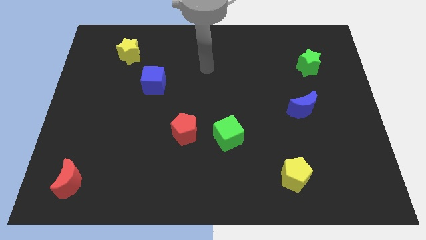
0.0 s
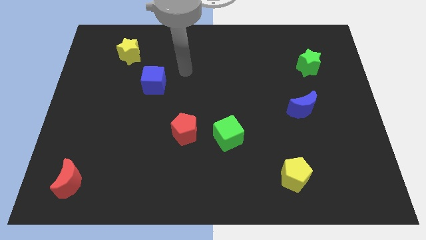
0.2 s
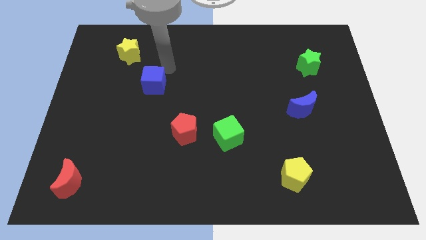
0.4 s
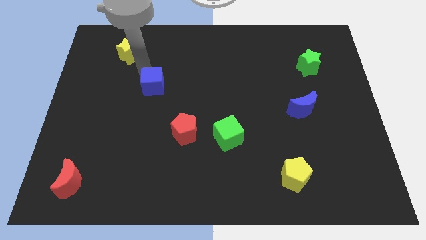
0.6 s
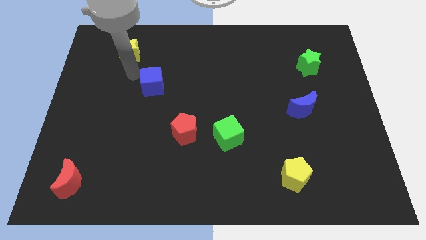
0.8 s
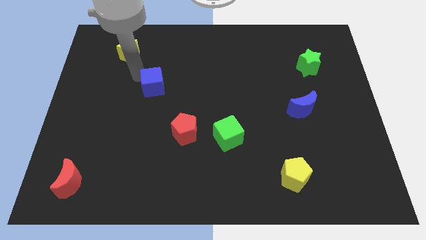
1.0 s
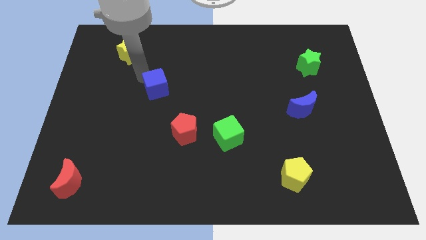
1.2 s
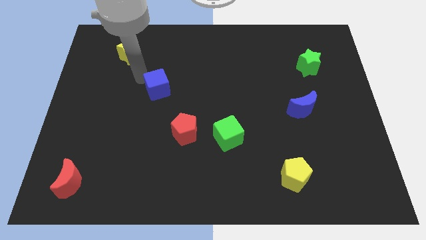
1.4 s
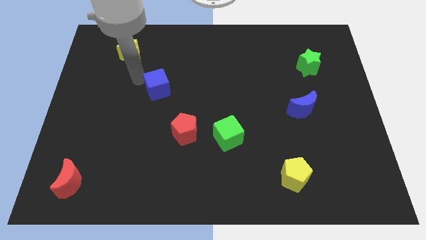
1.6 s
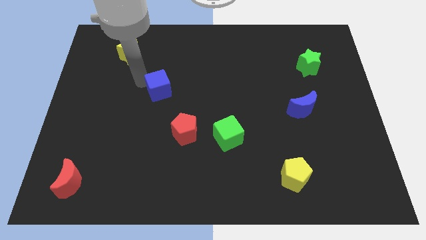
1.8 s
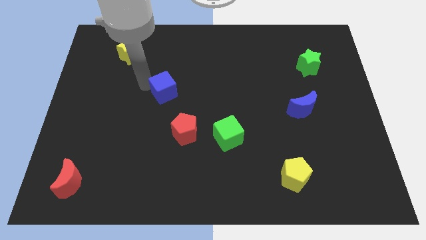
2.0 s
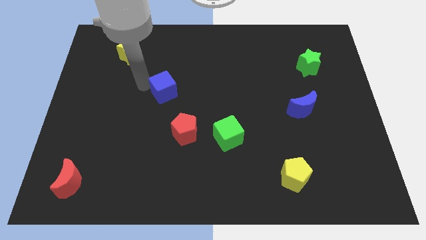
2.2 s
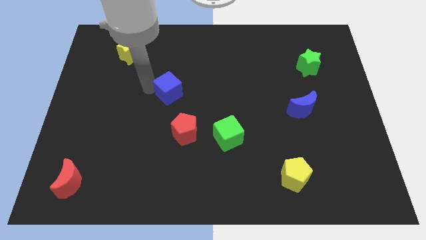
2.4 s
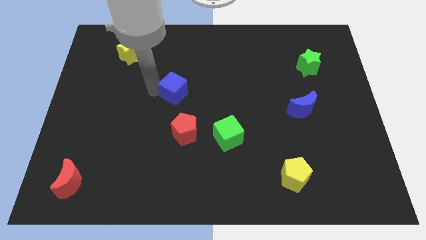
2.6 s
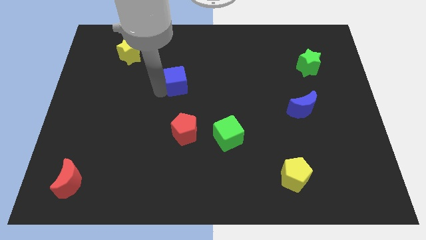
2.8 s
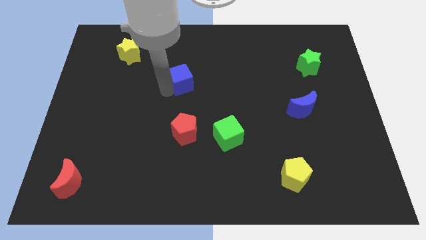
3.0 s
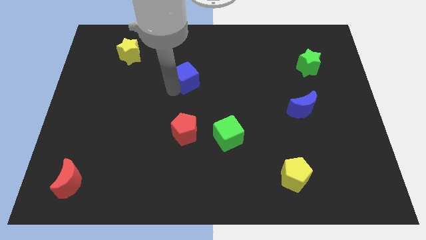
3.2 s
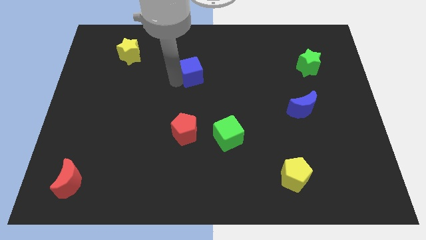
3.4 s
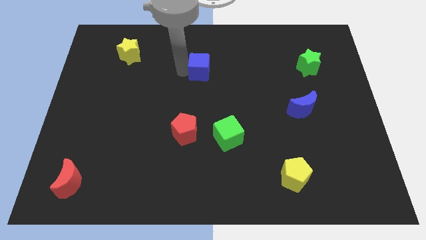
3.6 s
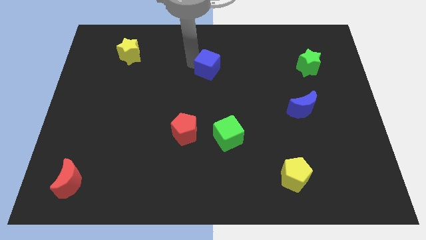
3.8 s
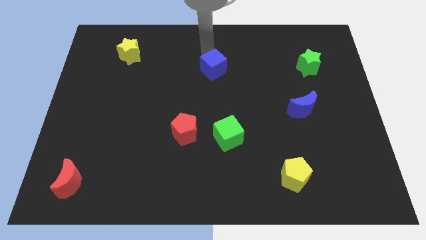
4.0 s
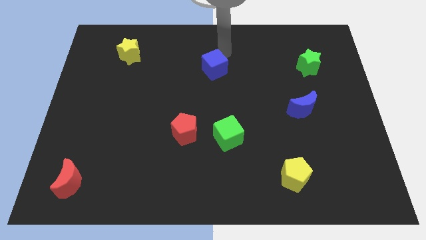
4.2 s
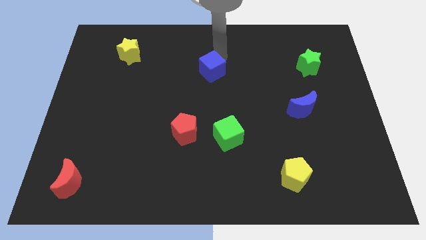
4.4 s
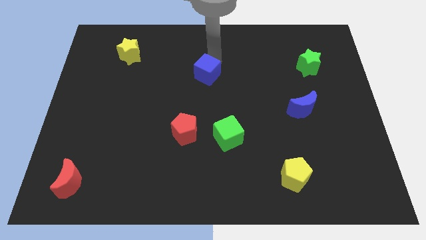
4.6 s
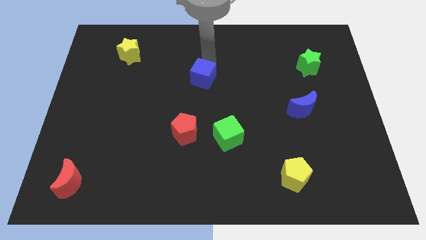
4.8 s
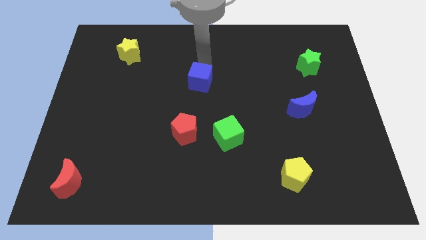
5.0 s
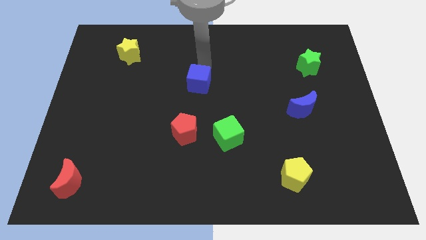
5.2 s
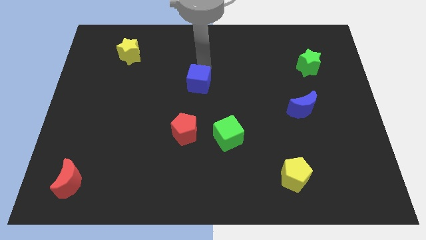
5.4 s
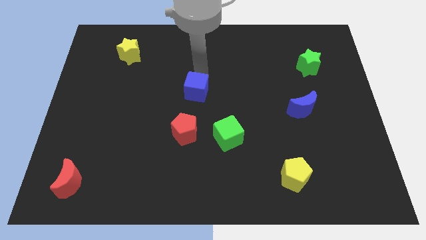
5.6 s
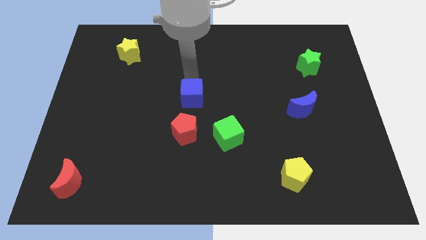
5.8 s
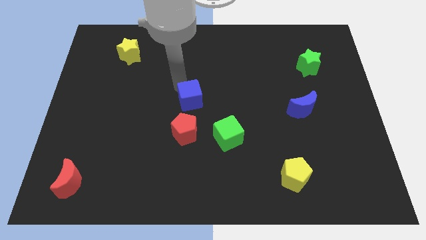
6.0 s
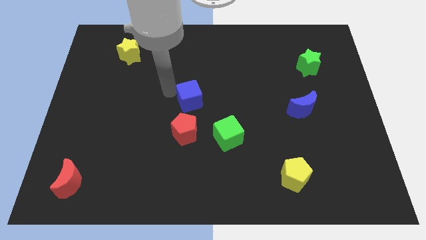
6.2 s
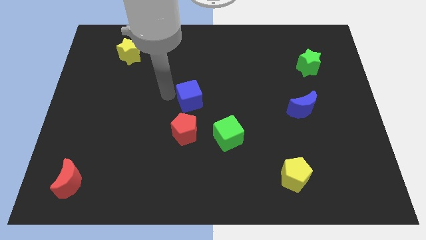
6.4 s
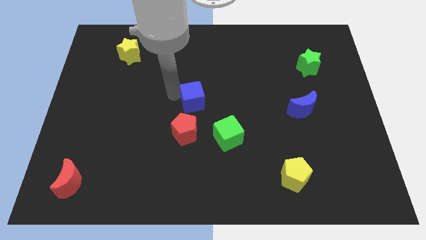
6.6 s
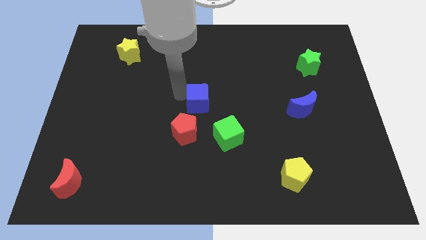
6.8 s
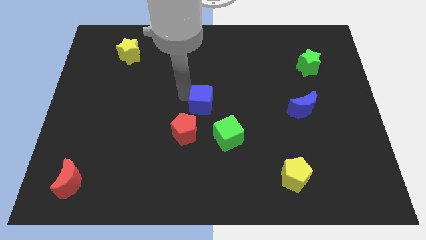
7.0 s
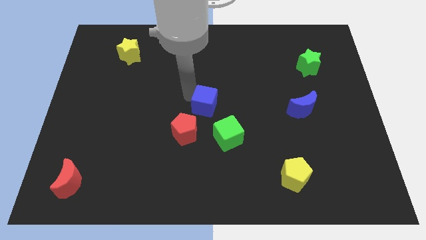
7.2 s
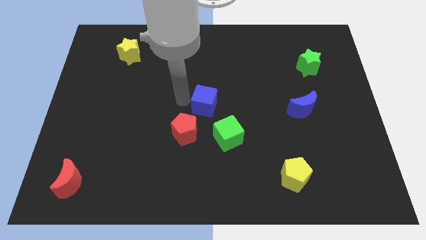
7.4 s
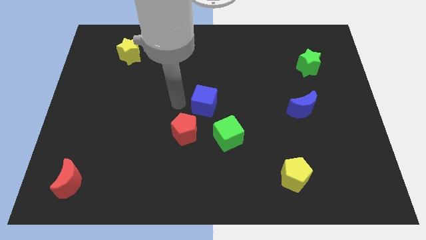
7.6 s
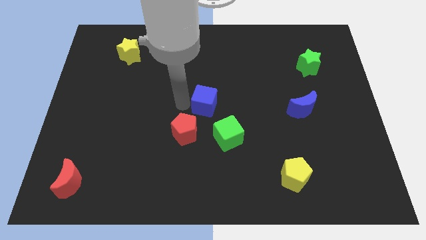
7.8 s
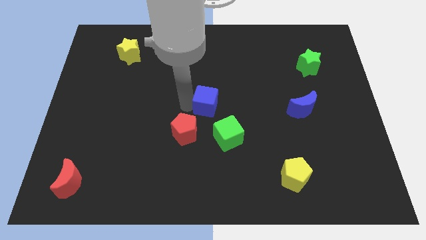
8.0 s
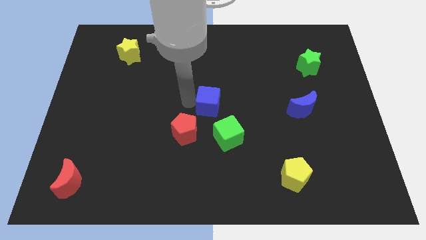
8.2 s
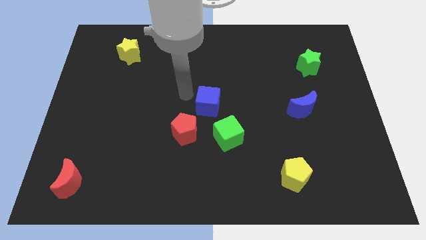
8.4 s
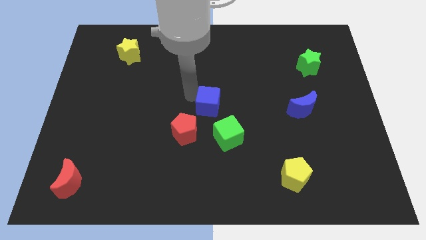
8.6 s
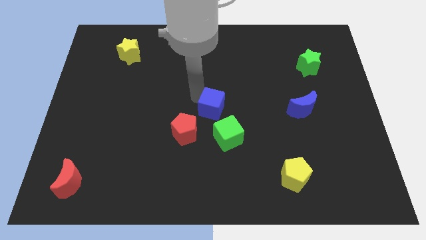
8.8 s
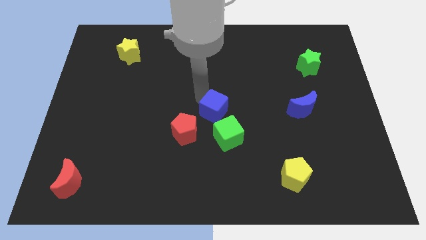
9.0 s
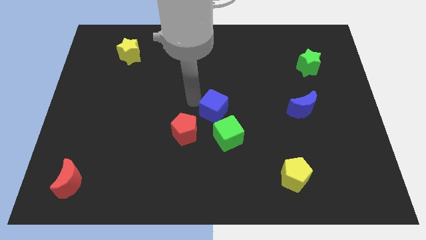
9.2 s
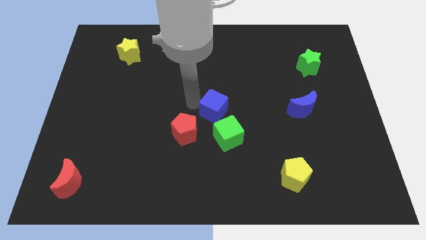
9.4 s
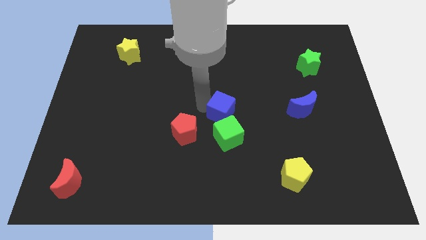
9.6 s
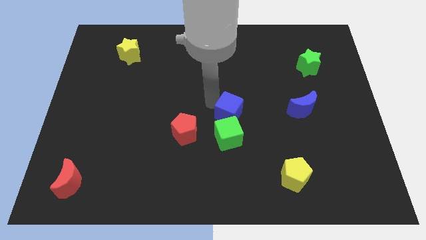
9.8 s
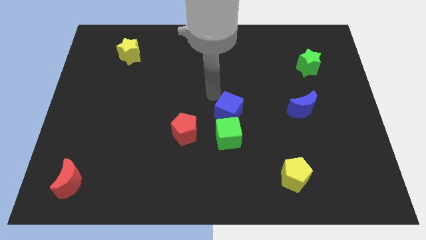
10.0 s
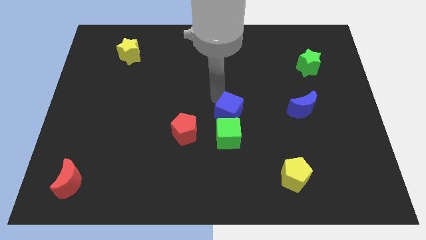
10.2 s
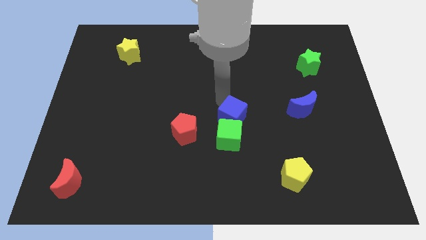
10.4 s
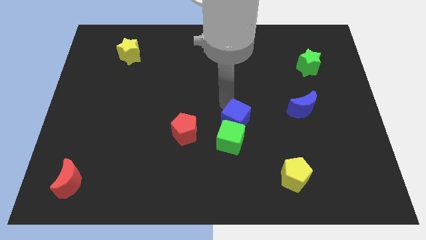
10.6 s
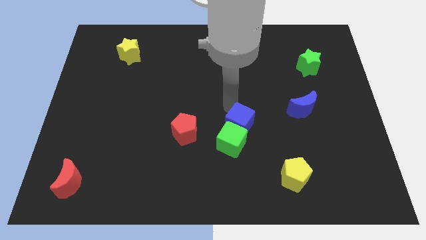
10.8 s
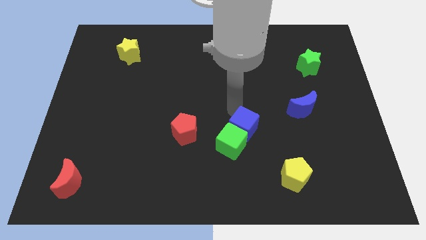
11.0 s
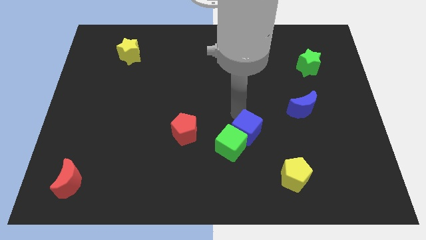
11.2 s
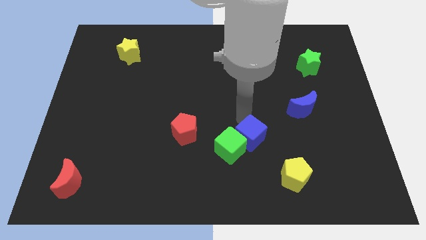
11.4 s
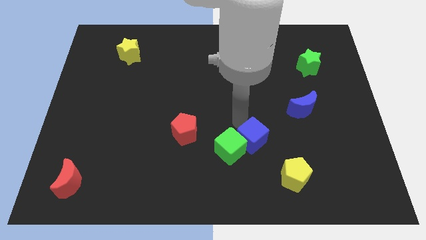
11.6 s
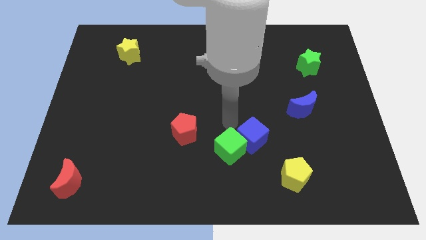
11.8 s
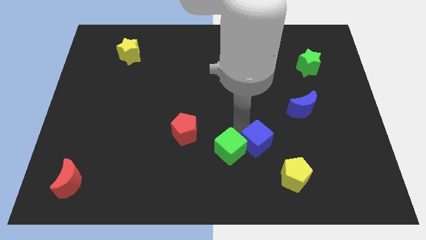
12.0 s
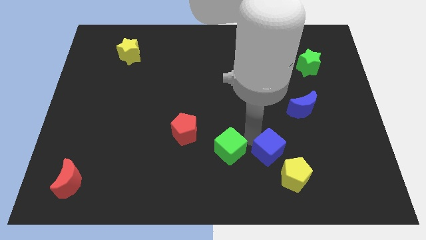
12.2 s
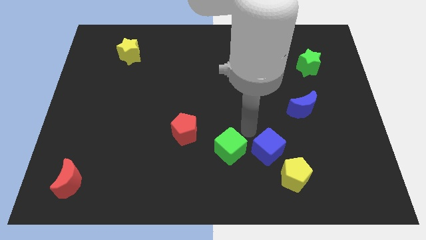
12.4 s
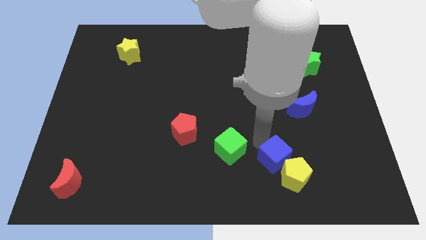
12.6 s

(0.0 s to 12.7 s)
put the blue cube close to the yellow pentagon

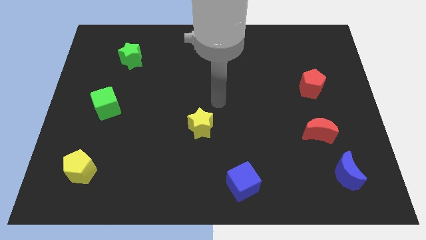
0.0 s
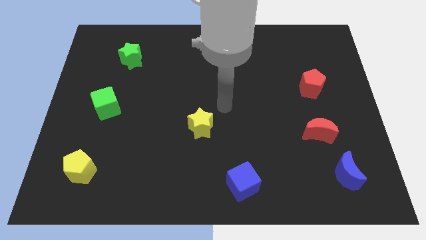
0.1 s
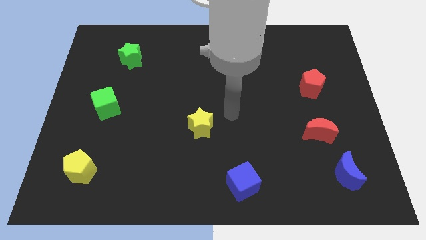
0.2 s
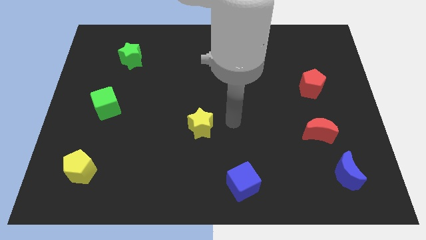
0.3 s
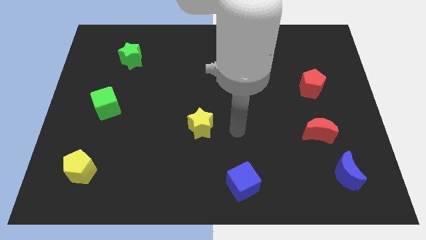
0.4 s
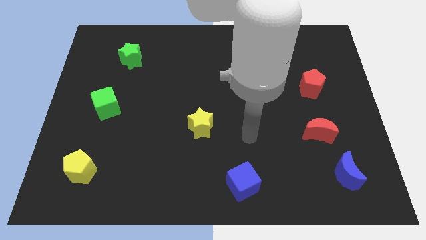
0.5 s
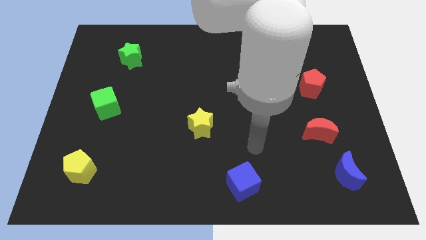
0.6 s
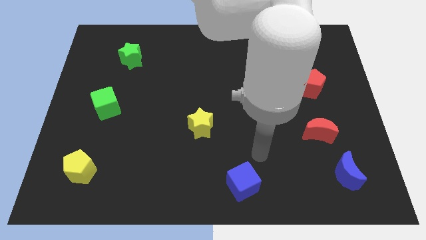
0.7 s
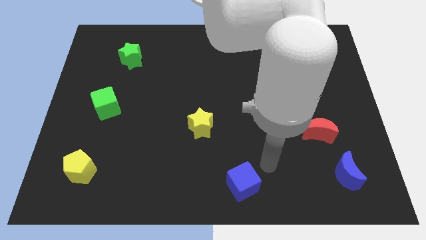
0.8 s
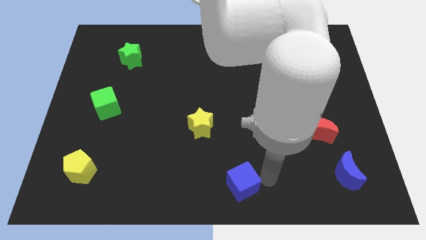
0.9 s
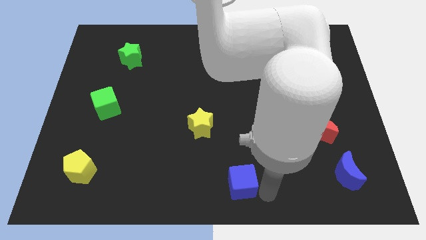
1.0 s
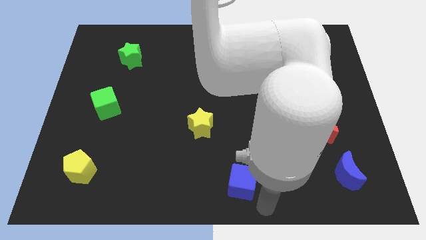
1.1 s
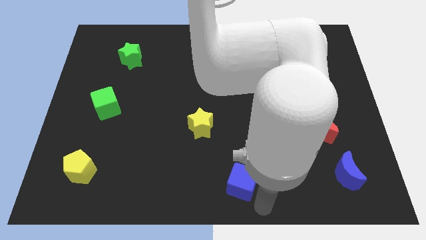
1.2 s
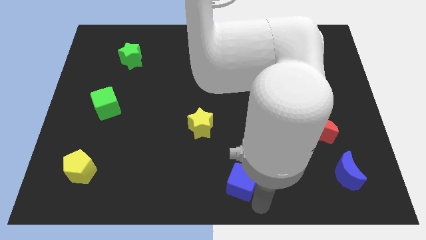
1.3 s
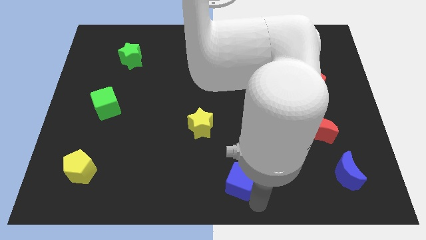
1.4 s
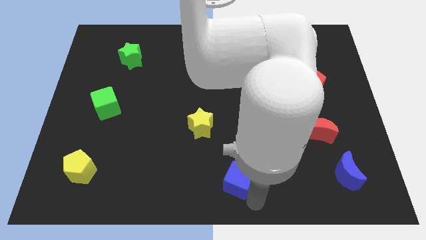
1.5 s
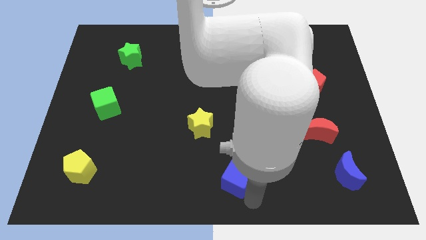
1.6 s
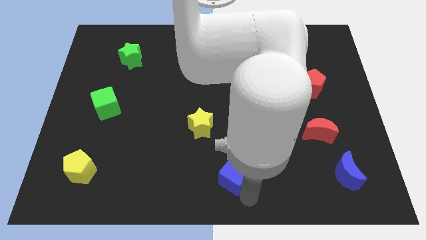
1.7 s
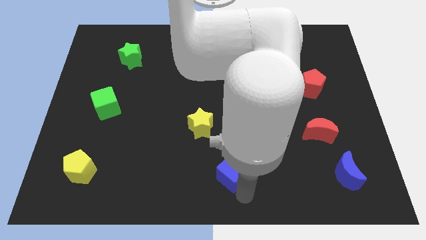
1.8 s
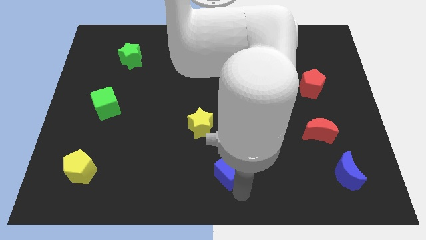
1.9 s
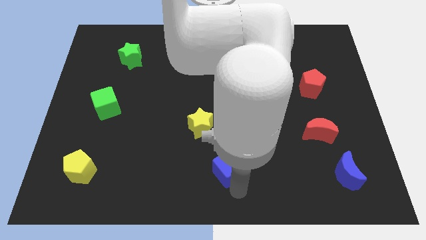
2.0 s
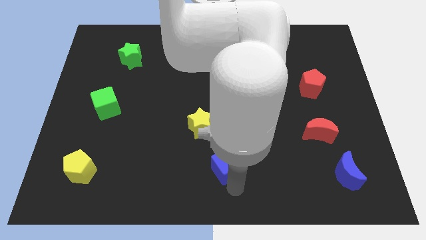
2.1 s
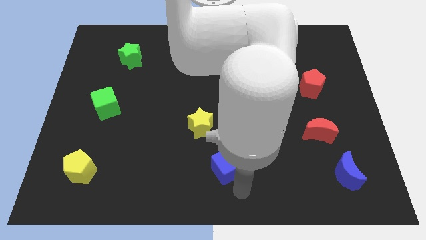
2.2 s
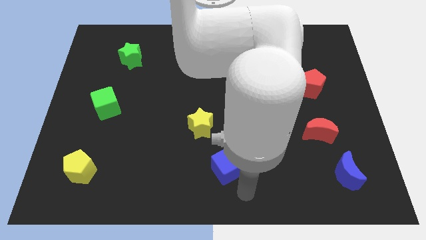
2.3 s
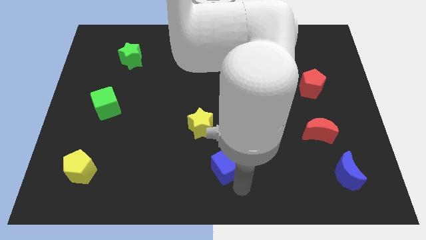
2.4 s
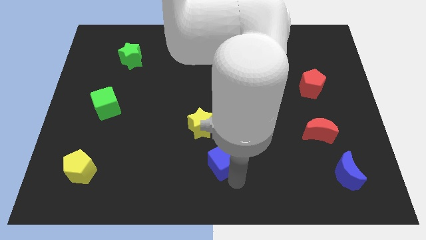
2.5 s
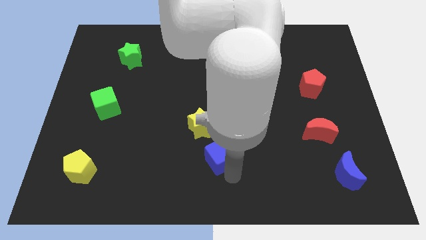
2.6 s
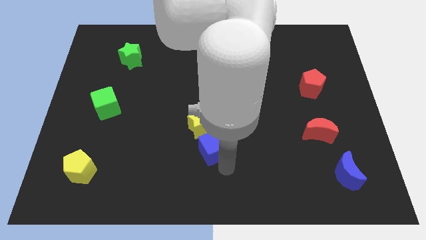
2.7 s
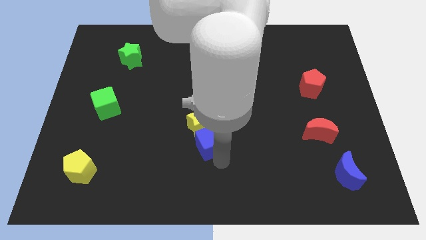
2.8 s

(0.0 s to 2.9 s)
slide the blue cube close to the yellow star
